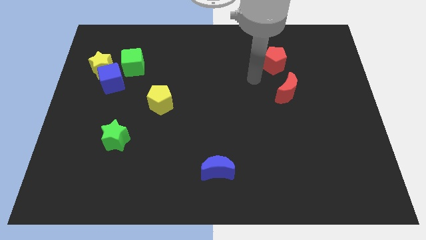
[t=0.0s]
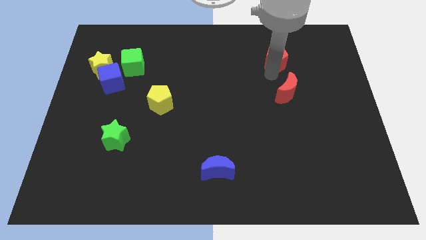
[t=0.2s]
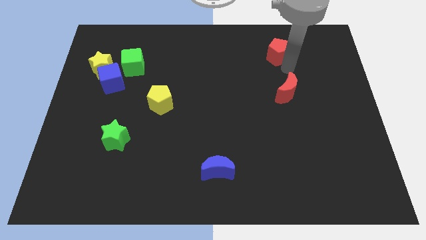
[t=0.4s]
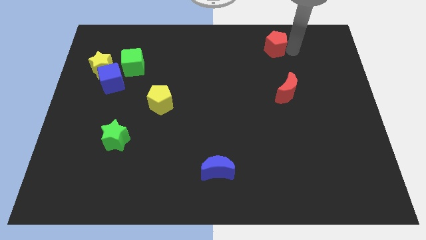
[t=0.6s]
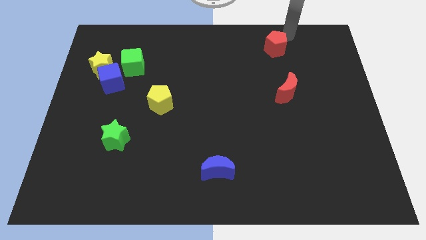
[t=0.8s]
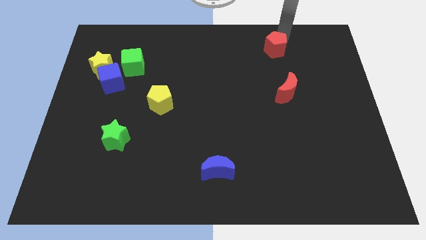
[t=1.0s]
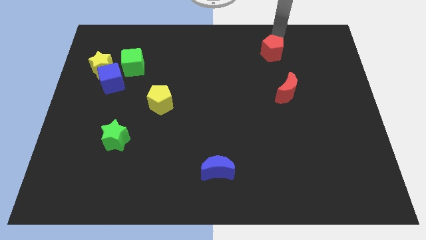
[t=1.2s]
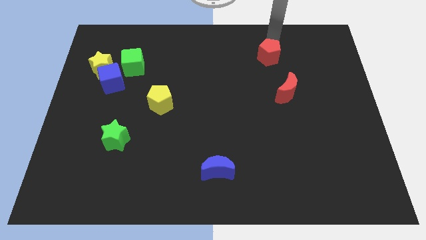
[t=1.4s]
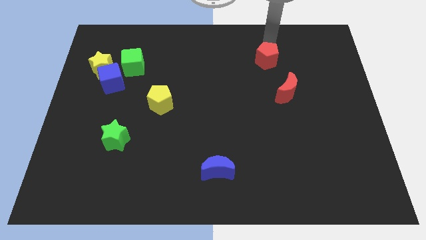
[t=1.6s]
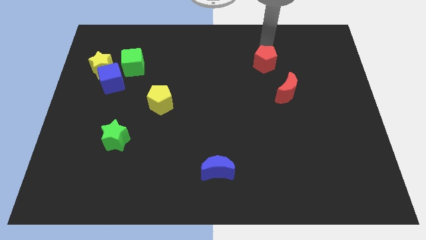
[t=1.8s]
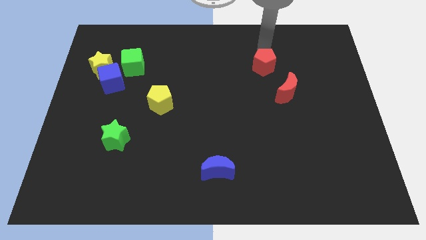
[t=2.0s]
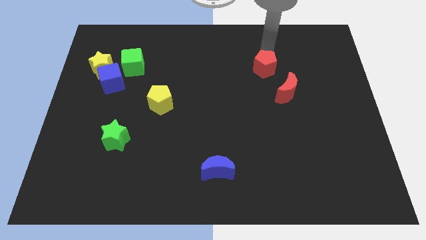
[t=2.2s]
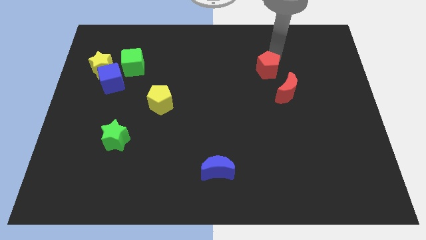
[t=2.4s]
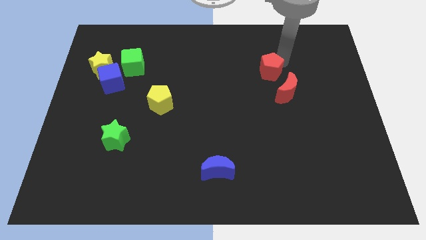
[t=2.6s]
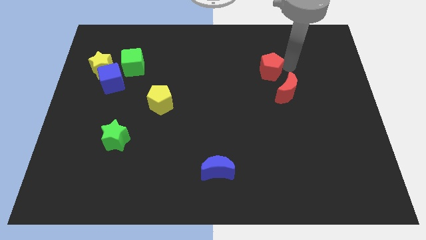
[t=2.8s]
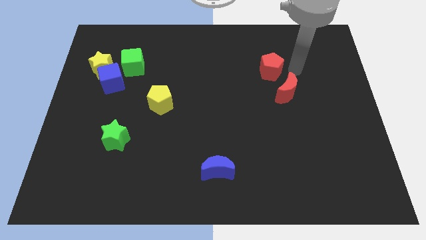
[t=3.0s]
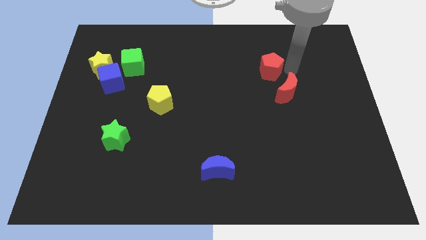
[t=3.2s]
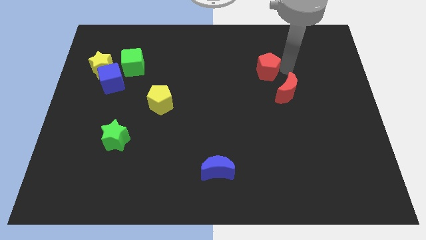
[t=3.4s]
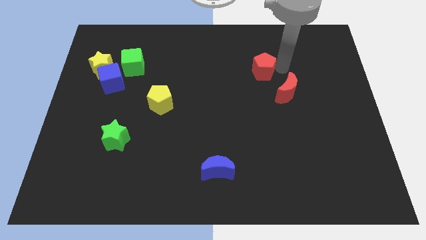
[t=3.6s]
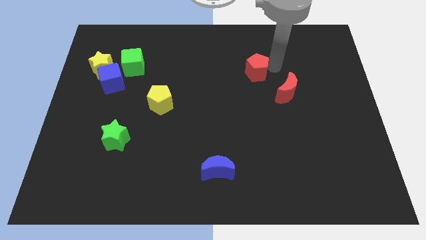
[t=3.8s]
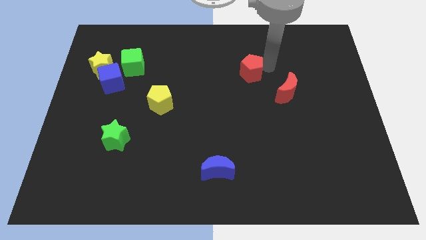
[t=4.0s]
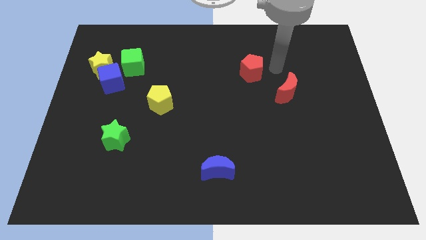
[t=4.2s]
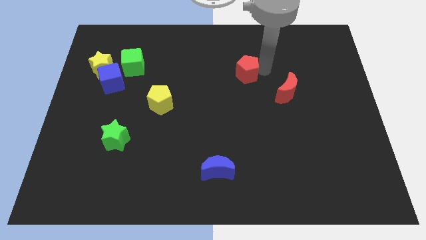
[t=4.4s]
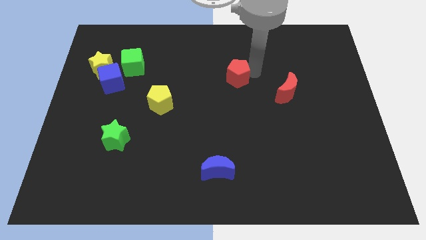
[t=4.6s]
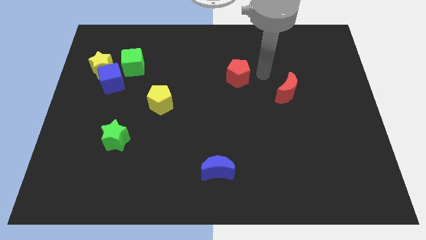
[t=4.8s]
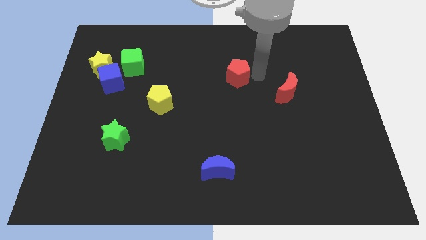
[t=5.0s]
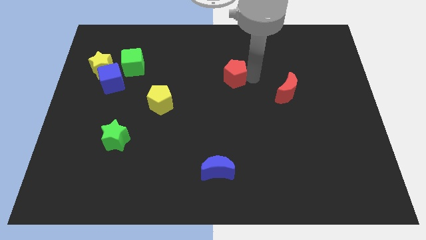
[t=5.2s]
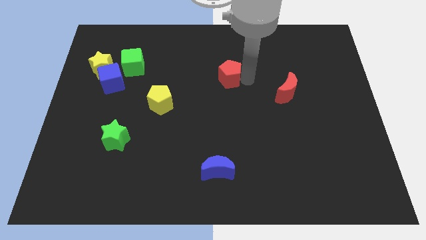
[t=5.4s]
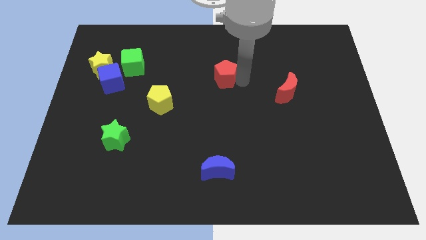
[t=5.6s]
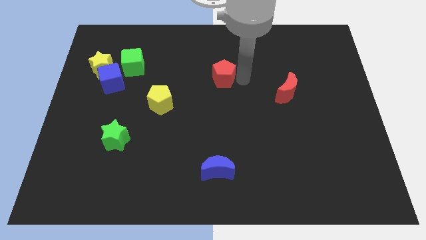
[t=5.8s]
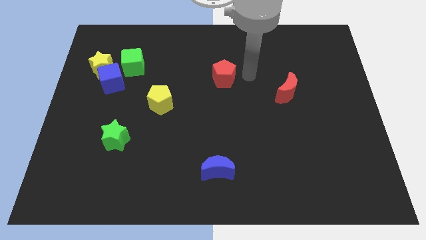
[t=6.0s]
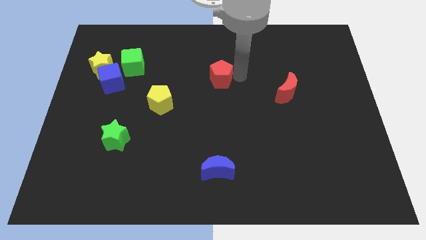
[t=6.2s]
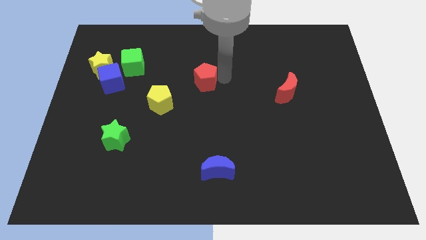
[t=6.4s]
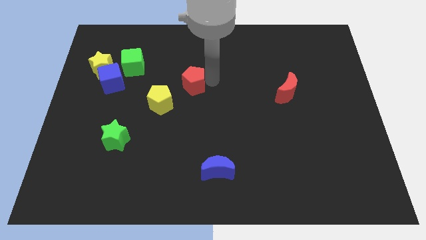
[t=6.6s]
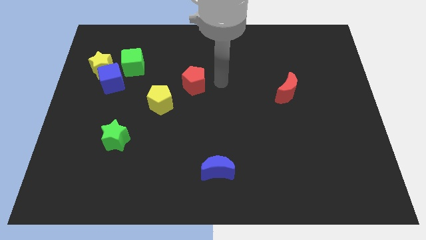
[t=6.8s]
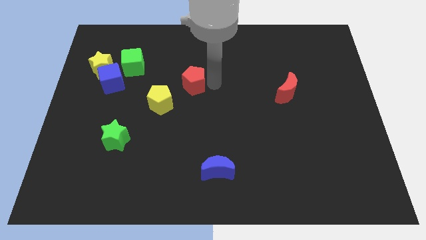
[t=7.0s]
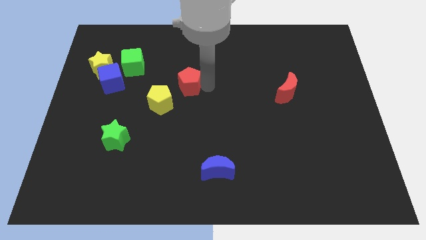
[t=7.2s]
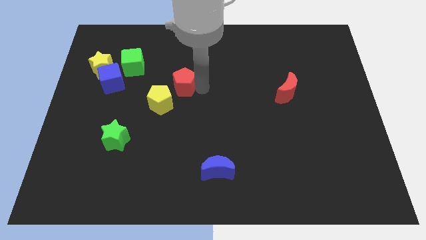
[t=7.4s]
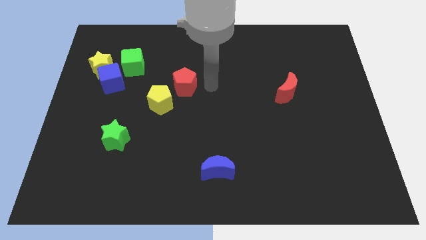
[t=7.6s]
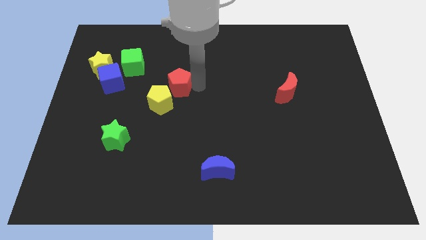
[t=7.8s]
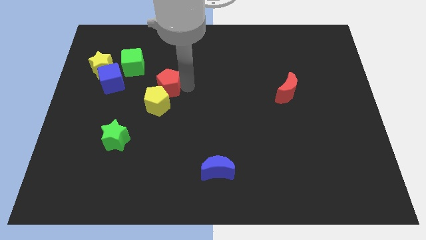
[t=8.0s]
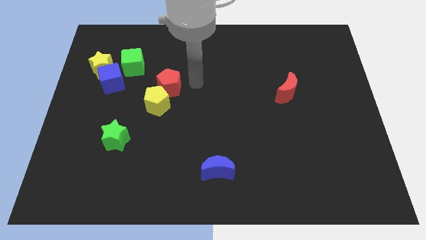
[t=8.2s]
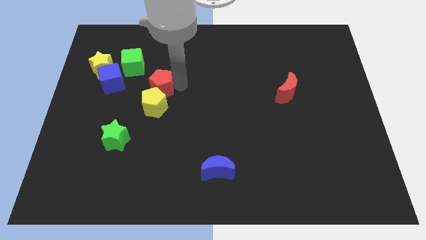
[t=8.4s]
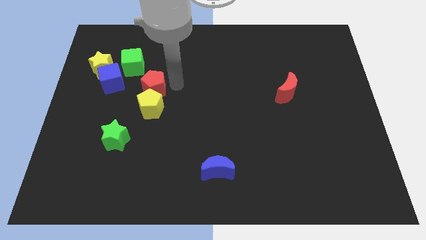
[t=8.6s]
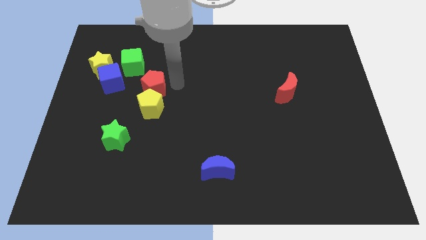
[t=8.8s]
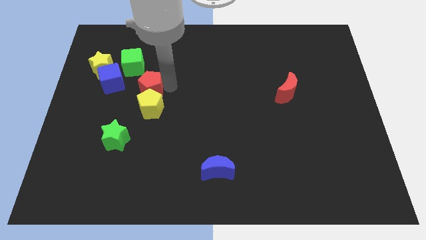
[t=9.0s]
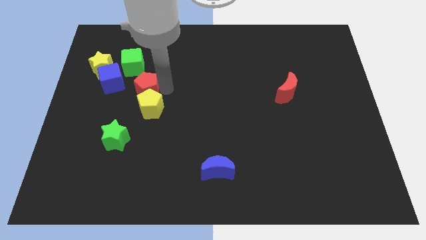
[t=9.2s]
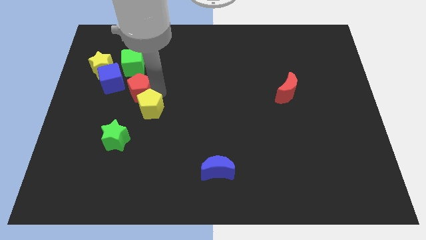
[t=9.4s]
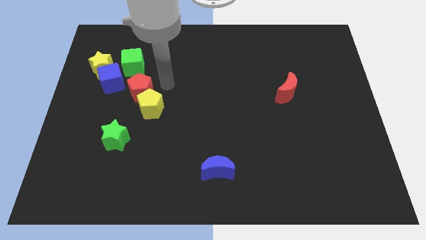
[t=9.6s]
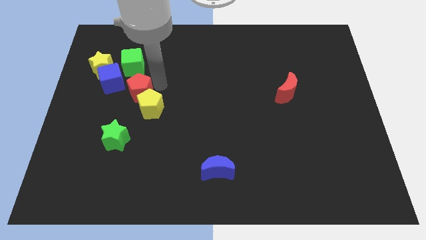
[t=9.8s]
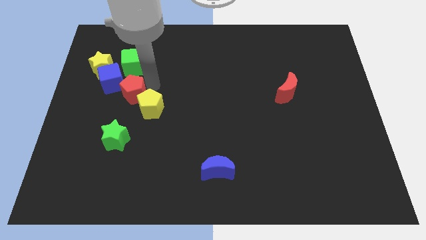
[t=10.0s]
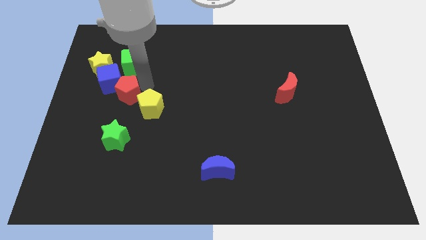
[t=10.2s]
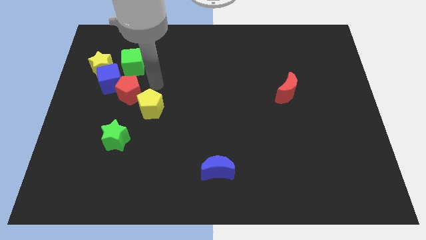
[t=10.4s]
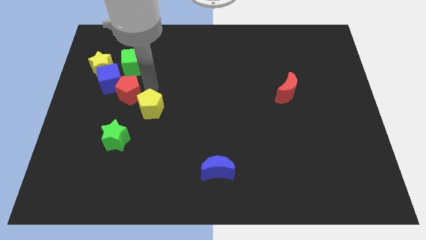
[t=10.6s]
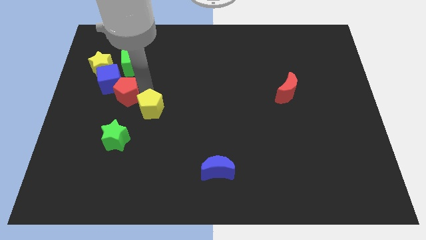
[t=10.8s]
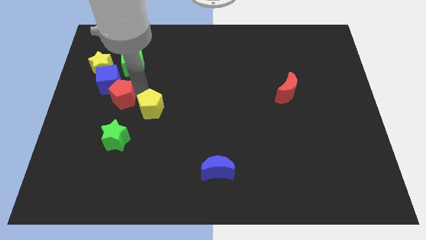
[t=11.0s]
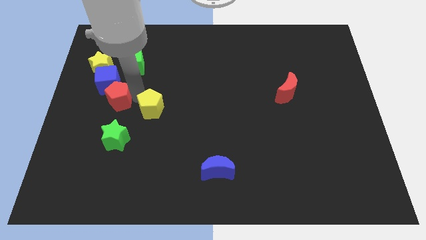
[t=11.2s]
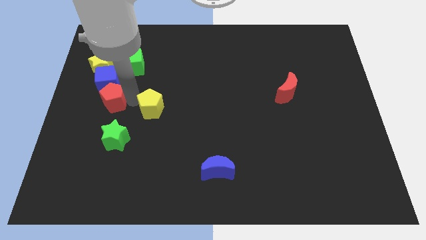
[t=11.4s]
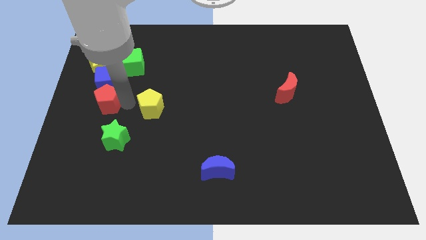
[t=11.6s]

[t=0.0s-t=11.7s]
move the red pentagon to the left side
